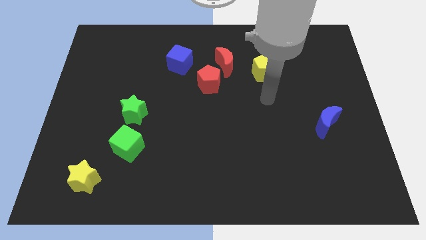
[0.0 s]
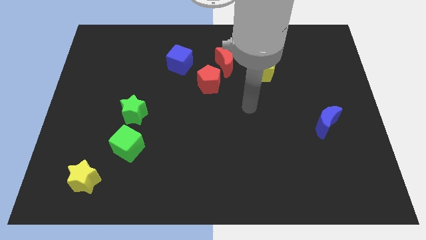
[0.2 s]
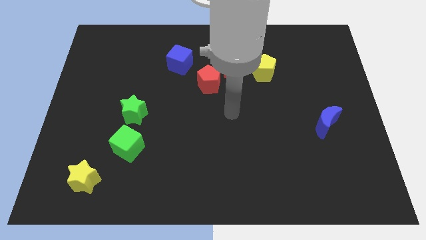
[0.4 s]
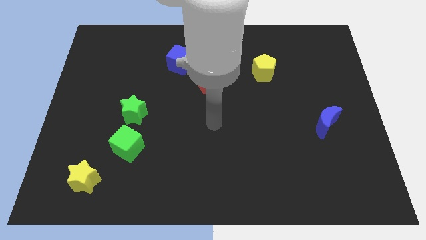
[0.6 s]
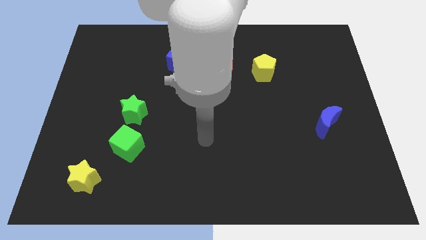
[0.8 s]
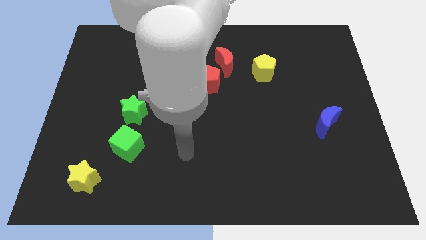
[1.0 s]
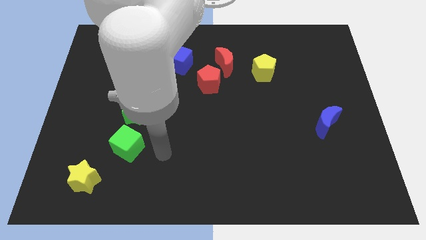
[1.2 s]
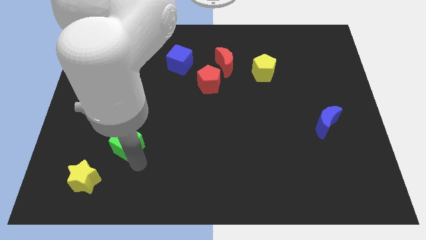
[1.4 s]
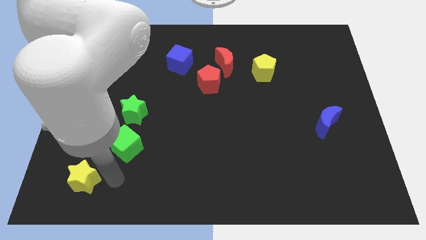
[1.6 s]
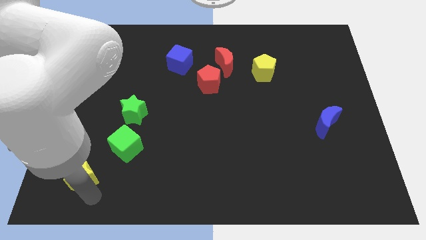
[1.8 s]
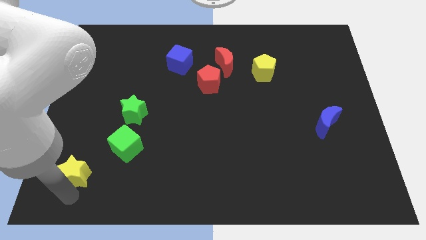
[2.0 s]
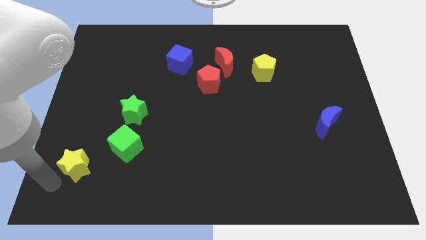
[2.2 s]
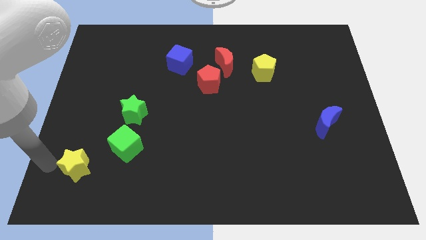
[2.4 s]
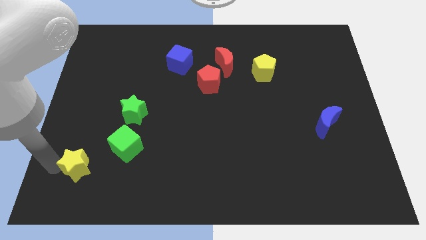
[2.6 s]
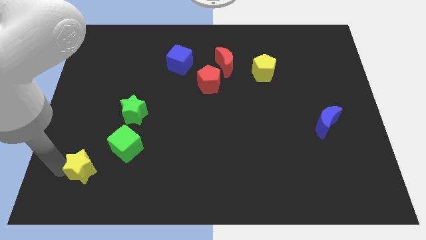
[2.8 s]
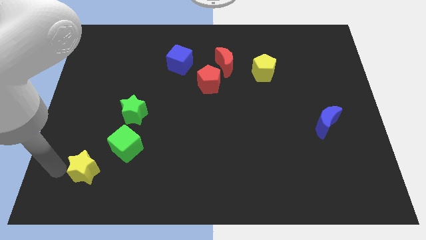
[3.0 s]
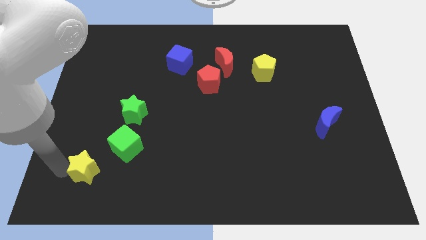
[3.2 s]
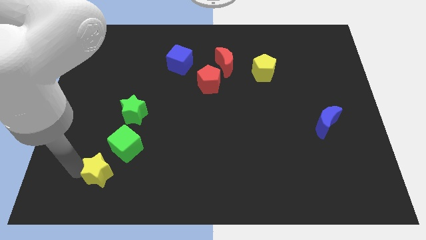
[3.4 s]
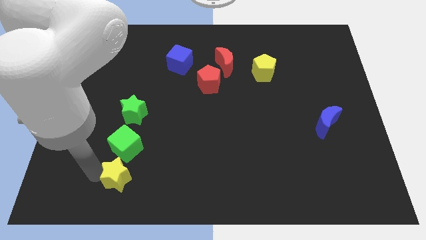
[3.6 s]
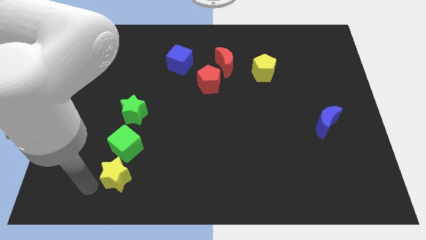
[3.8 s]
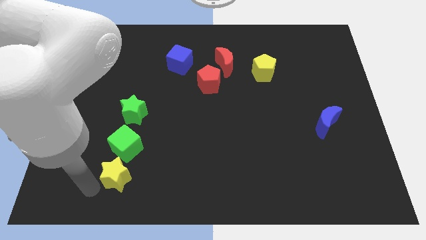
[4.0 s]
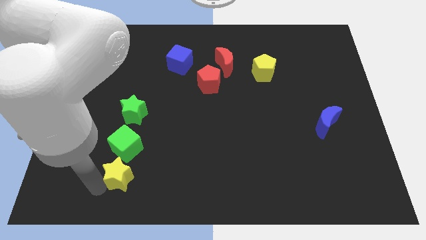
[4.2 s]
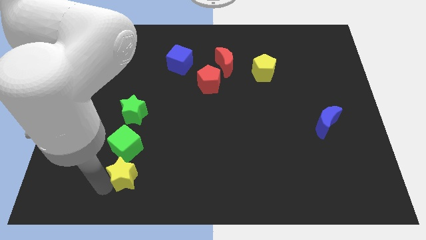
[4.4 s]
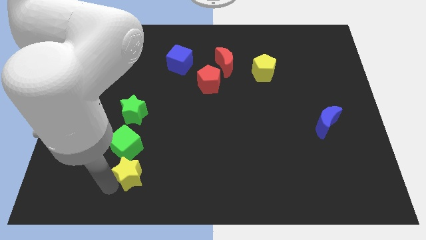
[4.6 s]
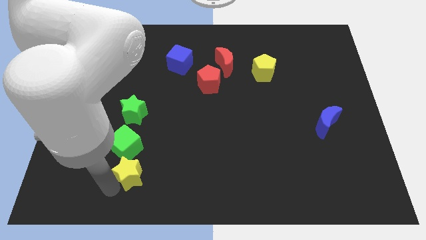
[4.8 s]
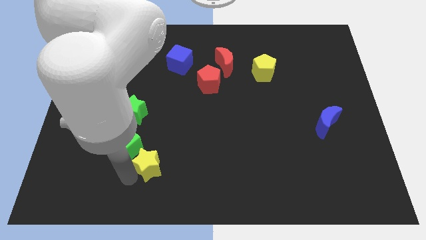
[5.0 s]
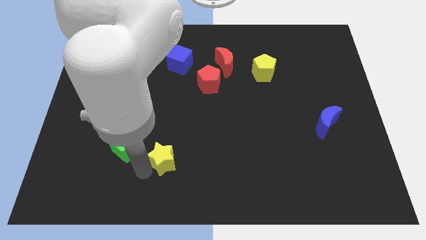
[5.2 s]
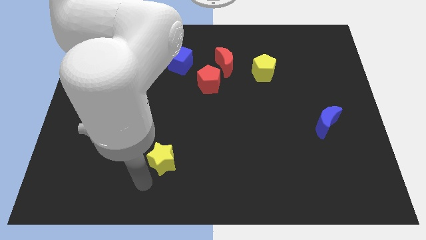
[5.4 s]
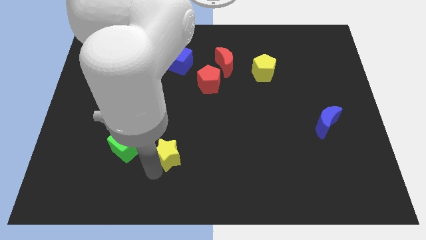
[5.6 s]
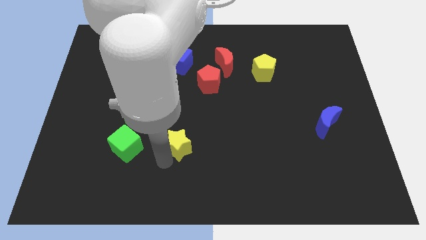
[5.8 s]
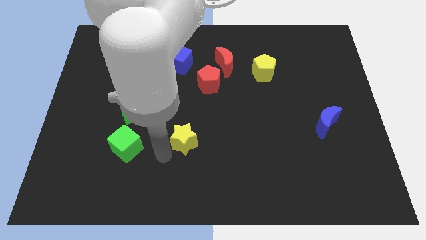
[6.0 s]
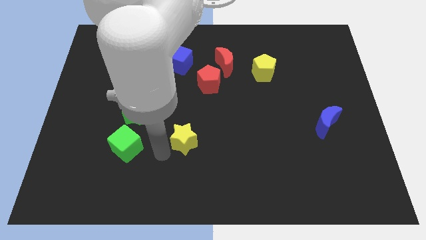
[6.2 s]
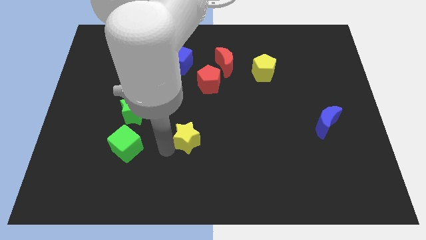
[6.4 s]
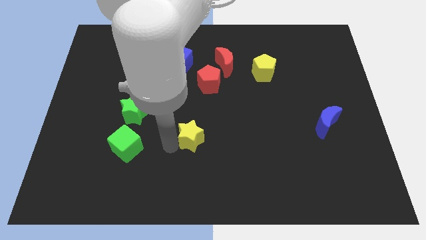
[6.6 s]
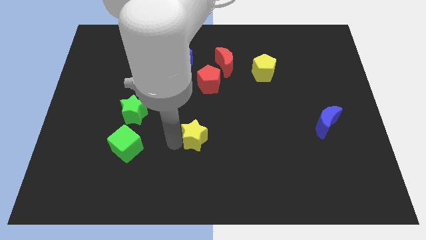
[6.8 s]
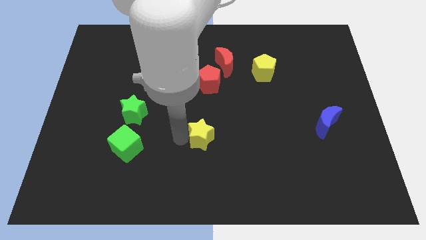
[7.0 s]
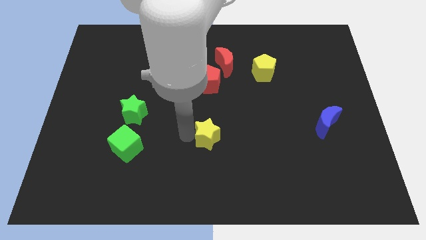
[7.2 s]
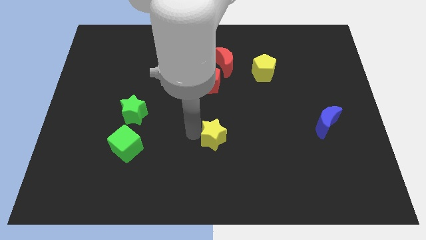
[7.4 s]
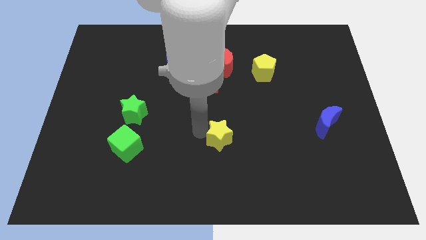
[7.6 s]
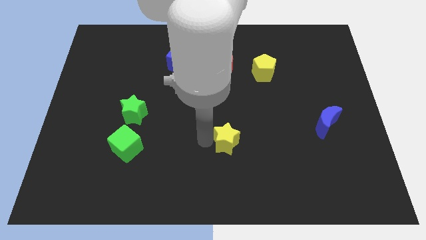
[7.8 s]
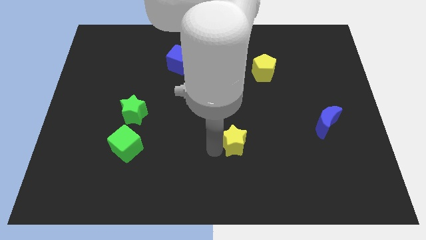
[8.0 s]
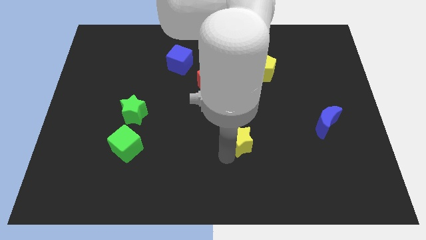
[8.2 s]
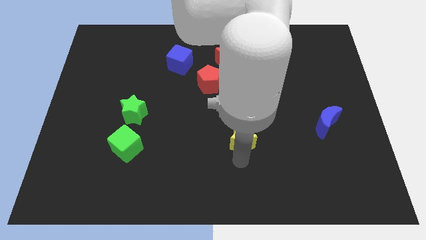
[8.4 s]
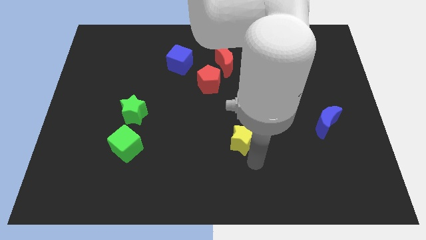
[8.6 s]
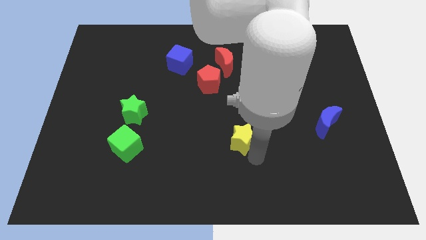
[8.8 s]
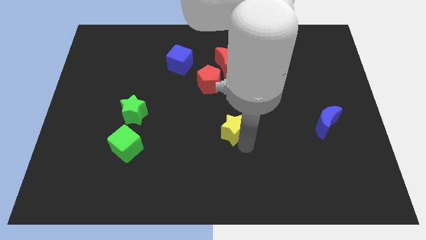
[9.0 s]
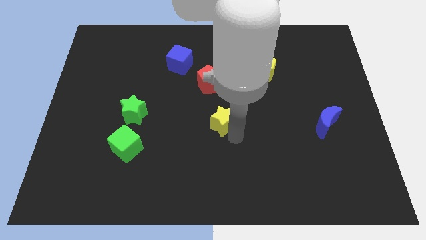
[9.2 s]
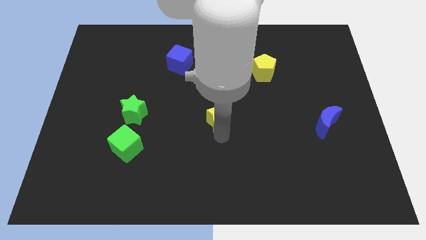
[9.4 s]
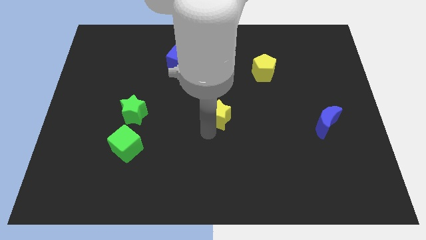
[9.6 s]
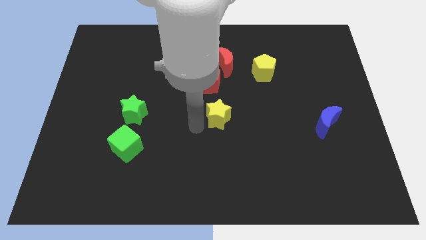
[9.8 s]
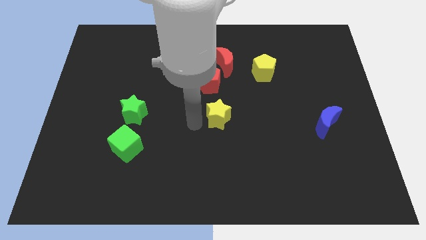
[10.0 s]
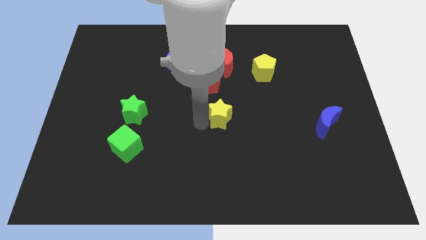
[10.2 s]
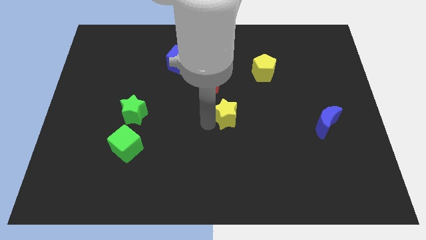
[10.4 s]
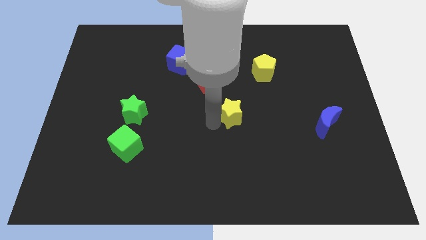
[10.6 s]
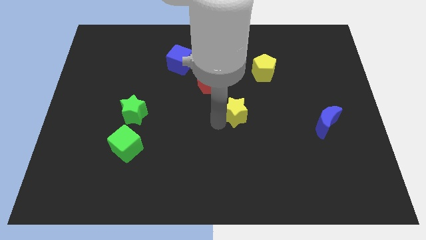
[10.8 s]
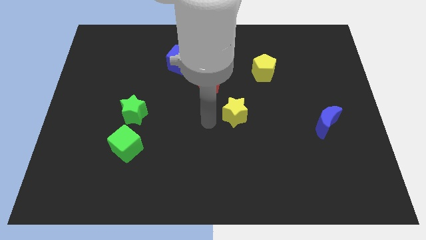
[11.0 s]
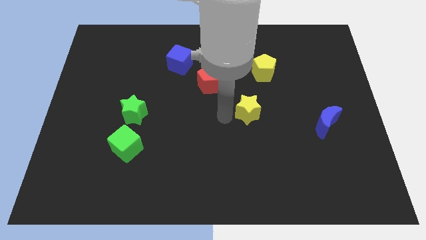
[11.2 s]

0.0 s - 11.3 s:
put the yellow star to the bottom of the yellow pentagon

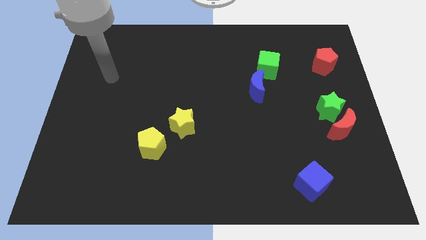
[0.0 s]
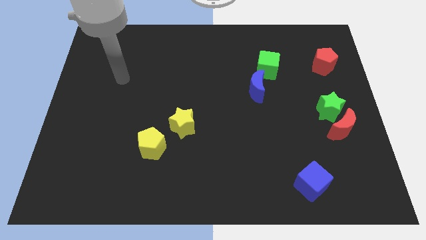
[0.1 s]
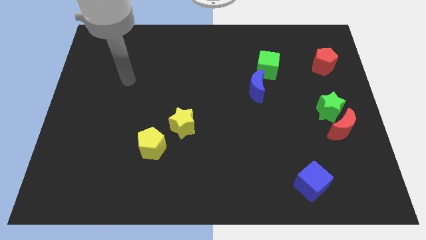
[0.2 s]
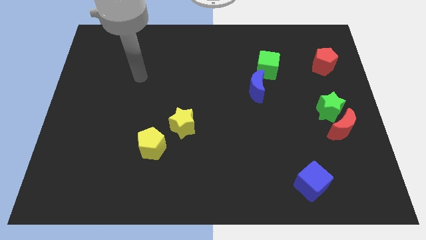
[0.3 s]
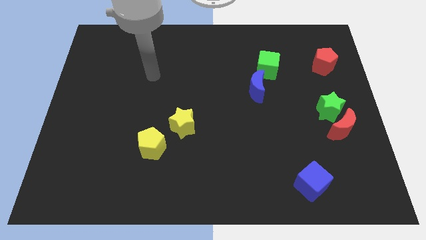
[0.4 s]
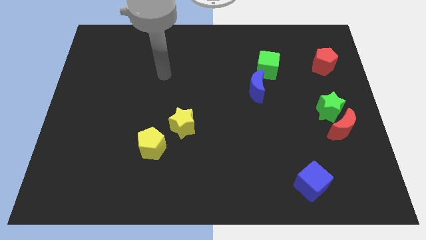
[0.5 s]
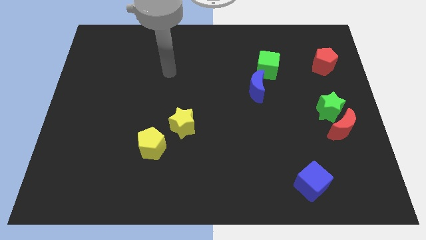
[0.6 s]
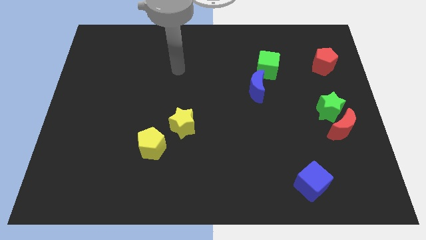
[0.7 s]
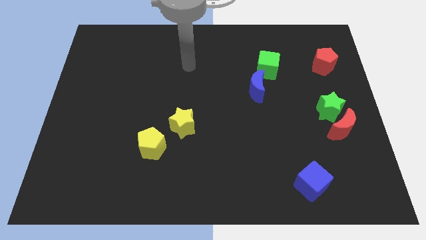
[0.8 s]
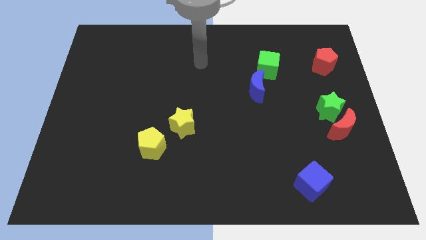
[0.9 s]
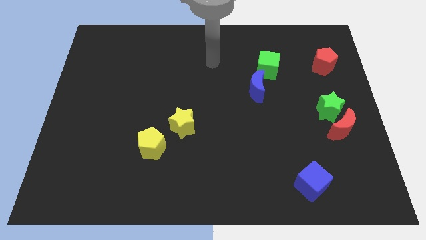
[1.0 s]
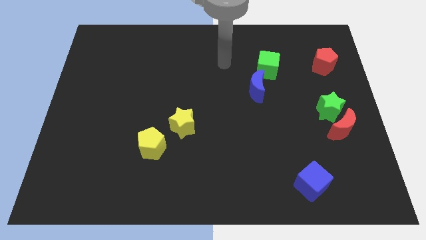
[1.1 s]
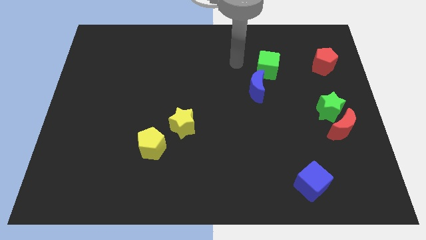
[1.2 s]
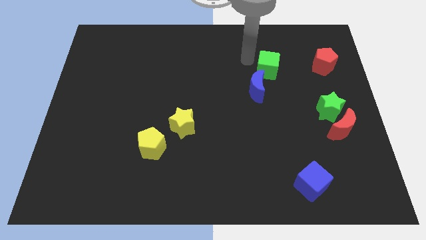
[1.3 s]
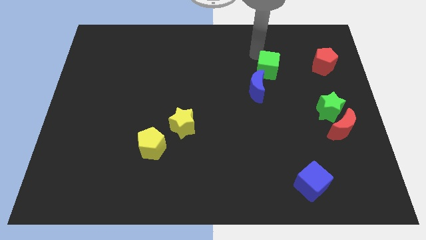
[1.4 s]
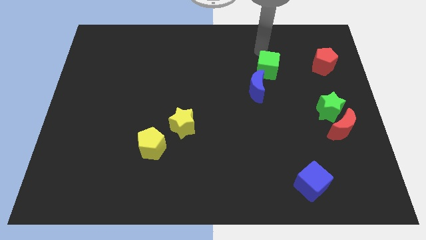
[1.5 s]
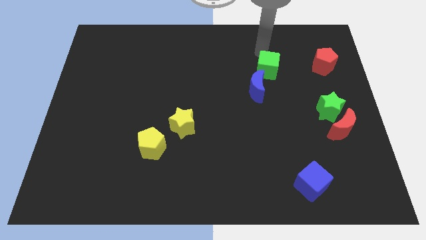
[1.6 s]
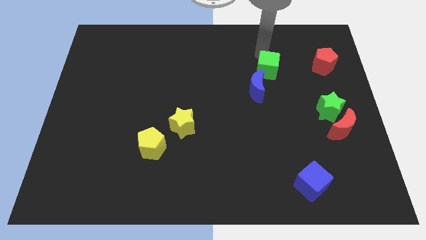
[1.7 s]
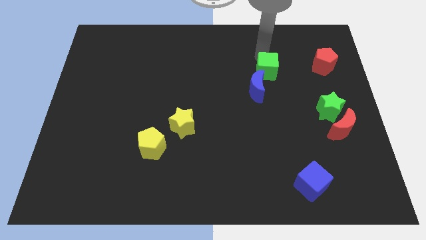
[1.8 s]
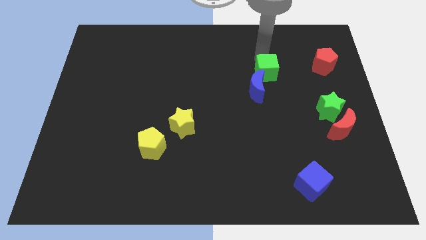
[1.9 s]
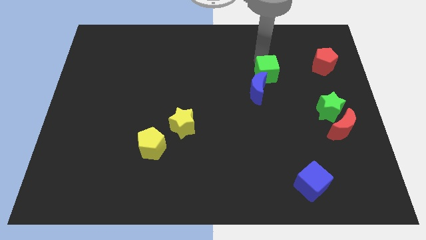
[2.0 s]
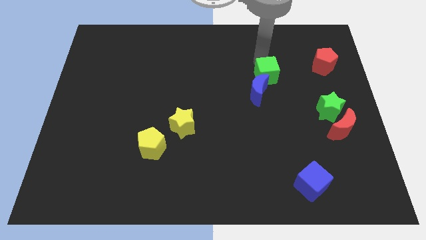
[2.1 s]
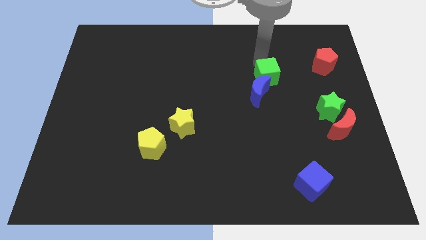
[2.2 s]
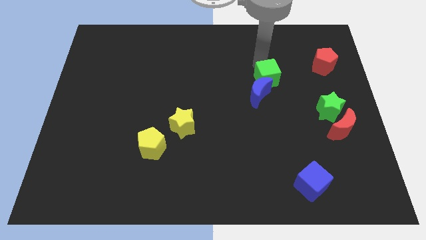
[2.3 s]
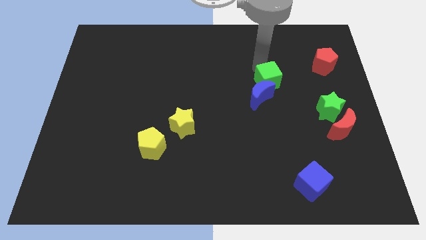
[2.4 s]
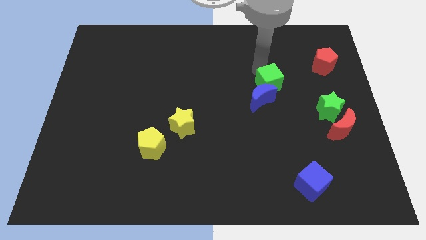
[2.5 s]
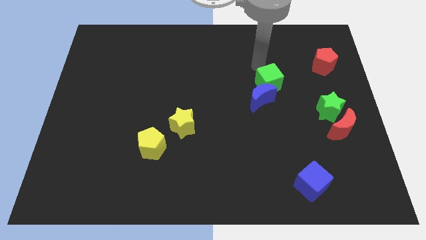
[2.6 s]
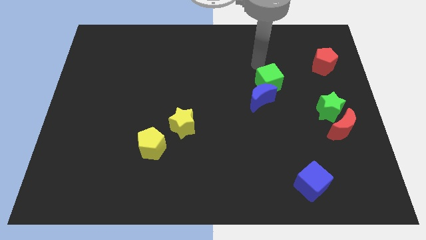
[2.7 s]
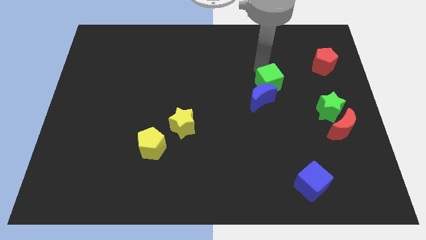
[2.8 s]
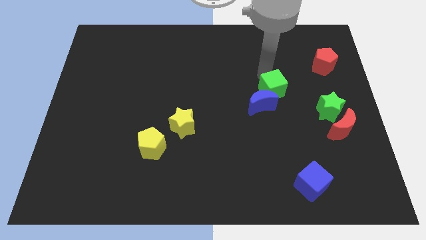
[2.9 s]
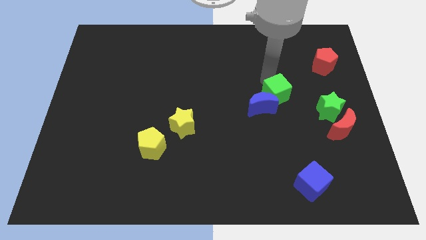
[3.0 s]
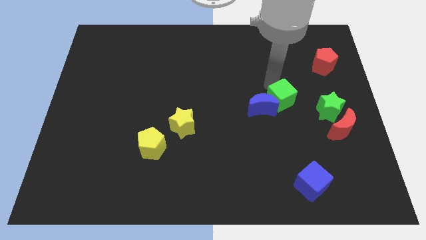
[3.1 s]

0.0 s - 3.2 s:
put the green cube left of the green star
